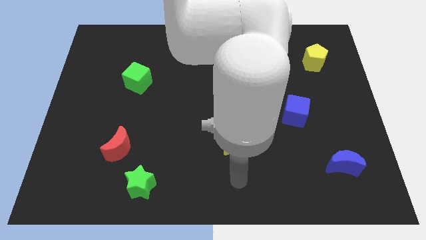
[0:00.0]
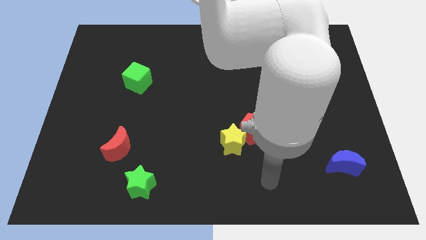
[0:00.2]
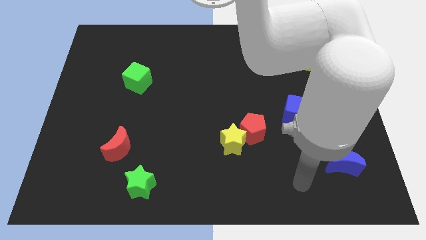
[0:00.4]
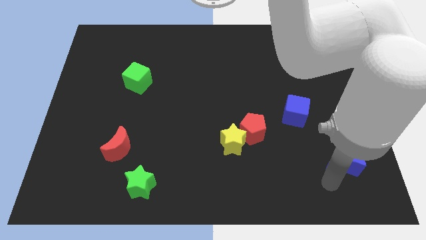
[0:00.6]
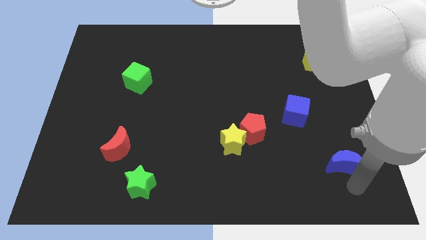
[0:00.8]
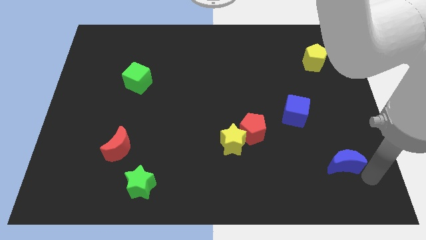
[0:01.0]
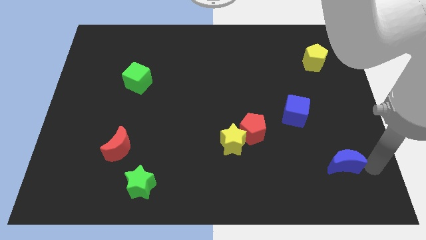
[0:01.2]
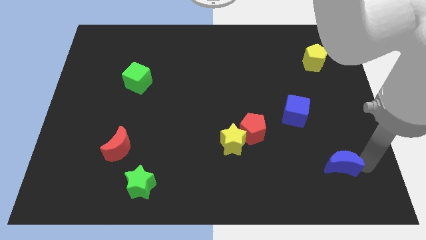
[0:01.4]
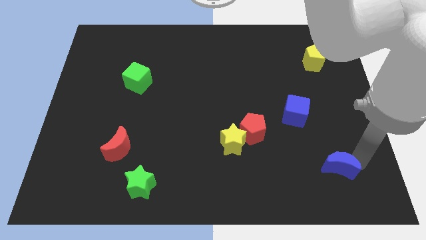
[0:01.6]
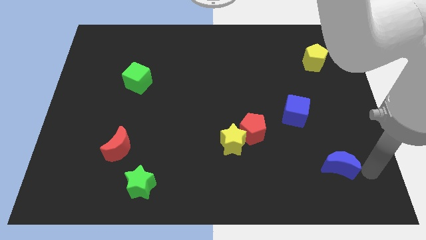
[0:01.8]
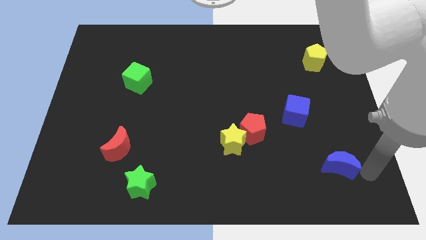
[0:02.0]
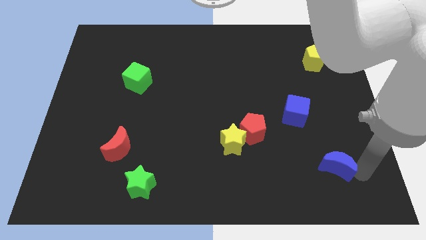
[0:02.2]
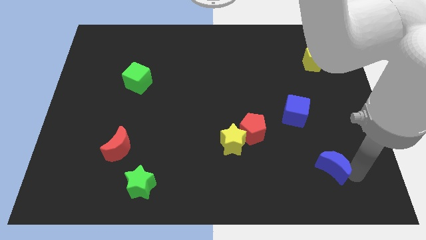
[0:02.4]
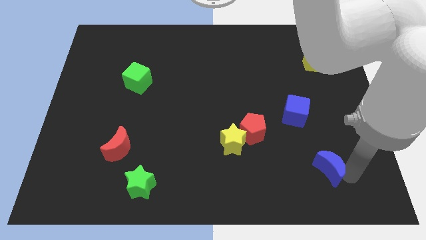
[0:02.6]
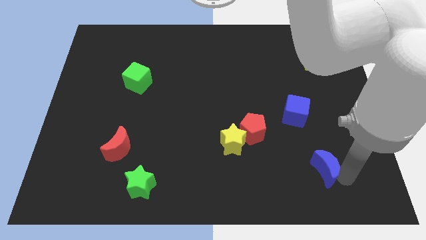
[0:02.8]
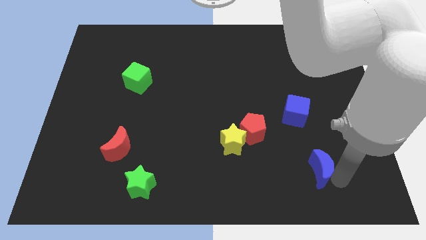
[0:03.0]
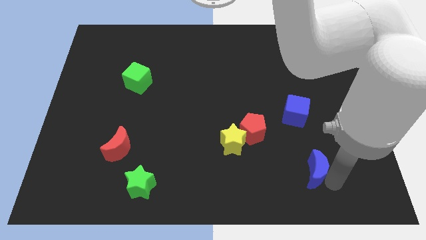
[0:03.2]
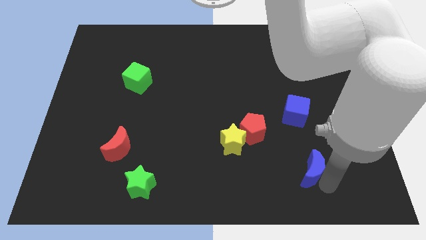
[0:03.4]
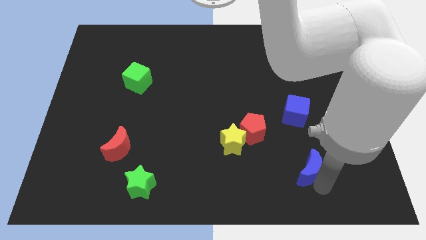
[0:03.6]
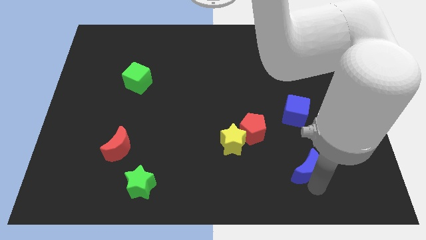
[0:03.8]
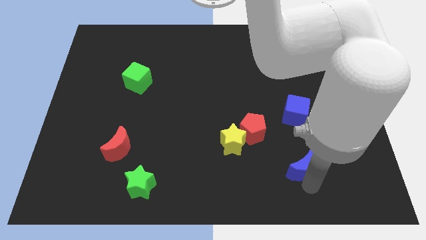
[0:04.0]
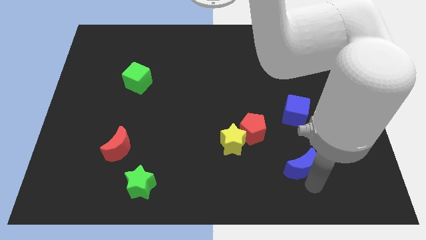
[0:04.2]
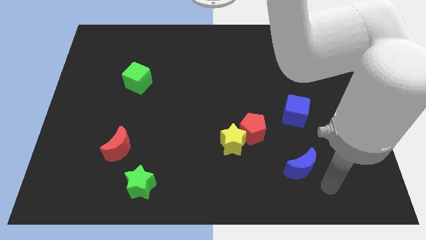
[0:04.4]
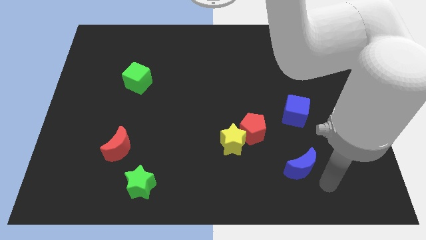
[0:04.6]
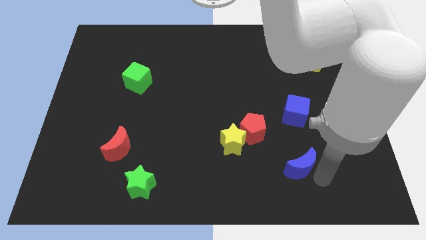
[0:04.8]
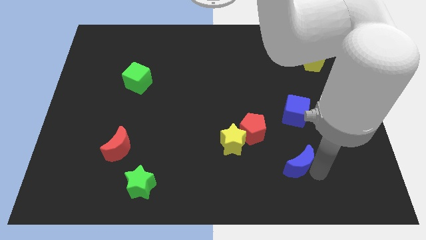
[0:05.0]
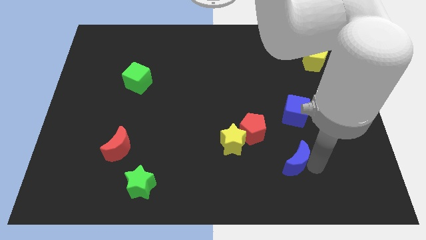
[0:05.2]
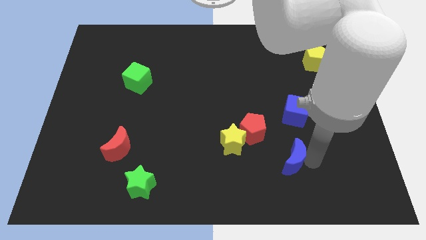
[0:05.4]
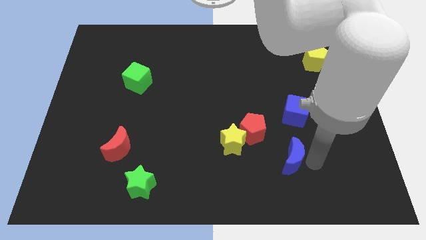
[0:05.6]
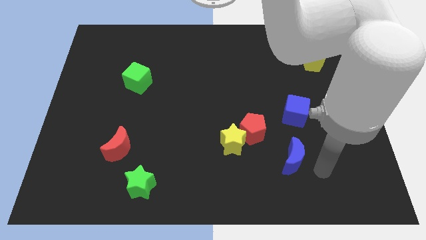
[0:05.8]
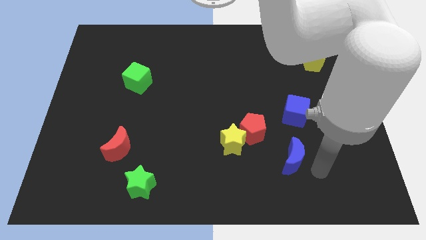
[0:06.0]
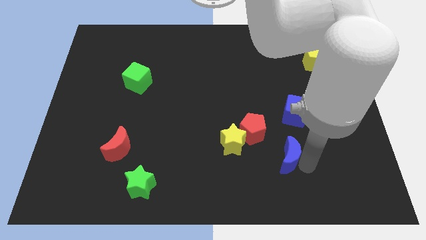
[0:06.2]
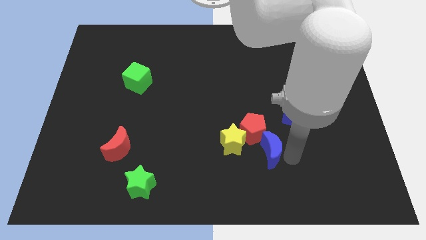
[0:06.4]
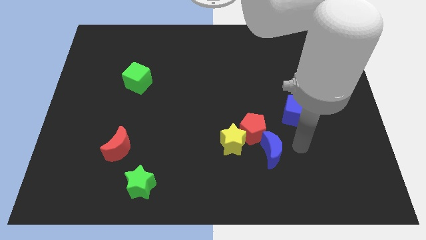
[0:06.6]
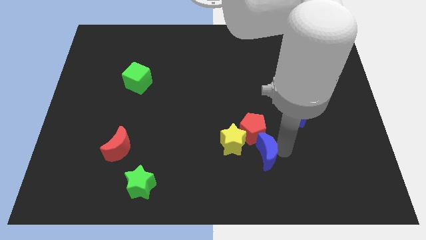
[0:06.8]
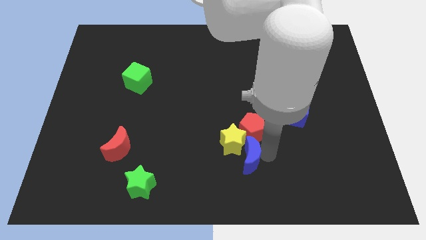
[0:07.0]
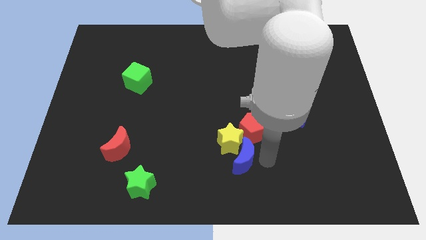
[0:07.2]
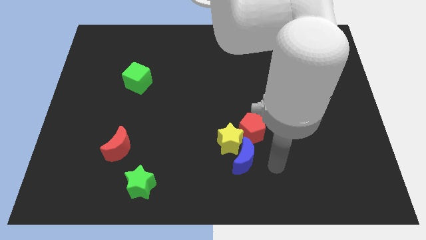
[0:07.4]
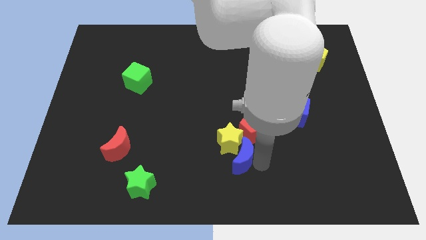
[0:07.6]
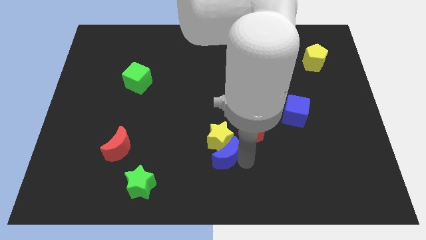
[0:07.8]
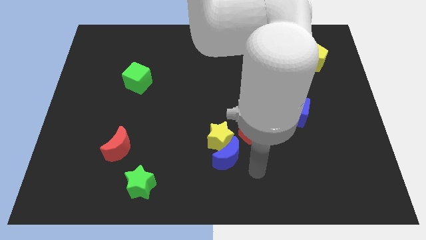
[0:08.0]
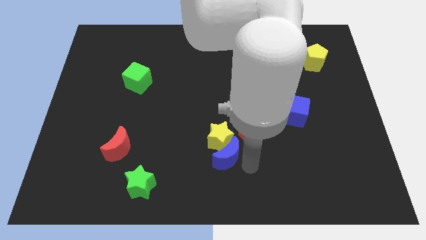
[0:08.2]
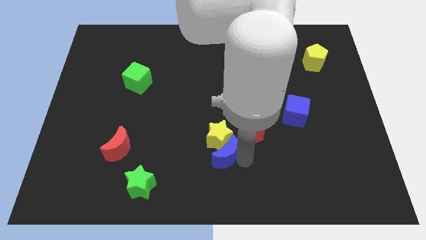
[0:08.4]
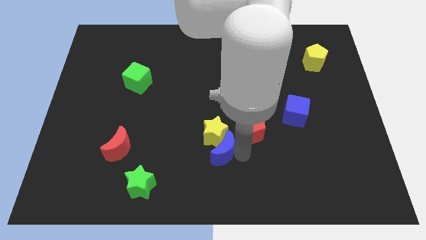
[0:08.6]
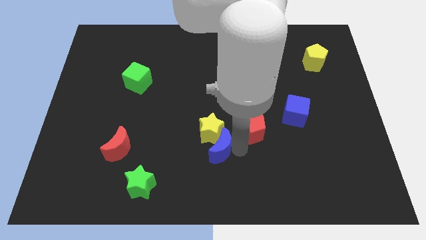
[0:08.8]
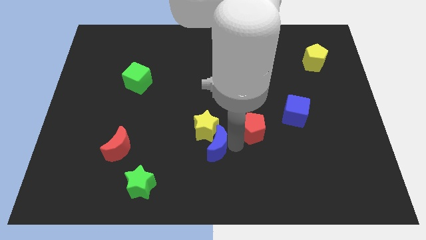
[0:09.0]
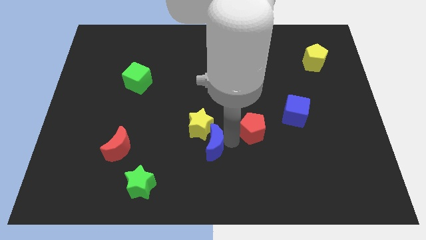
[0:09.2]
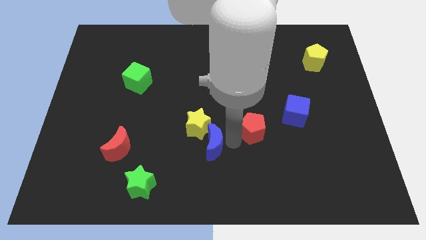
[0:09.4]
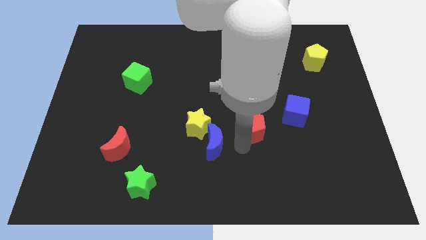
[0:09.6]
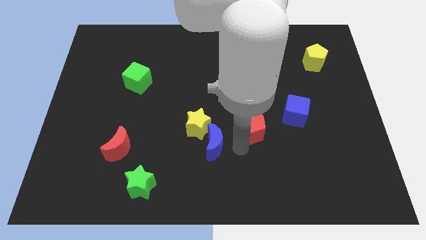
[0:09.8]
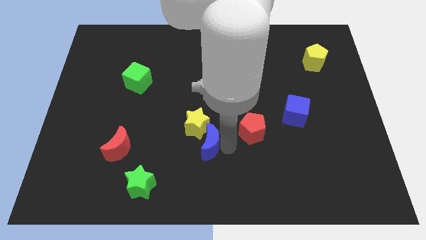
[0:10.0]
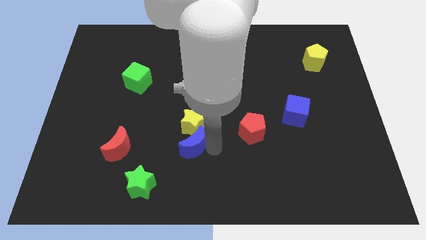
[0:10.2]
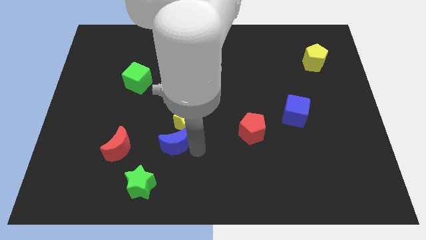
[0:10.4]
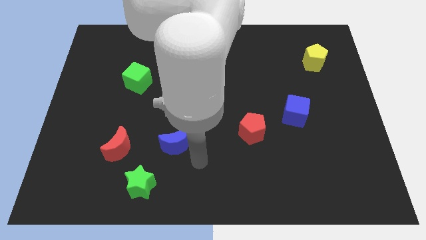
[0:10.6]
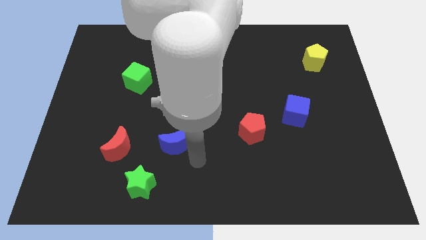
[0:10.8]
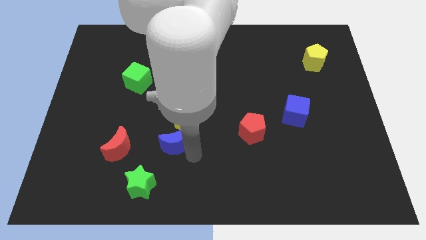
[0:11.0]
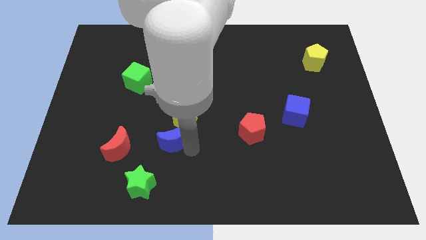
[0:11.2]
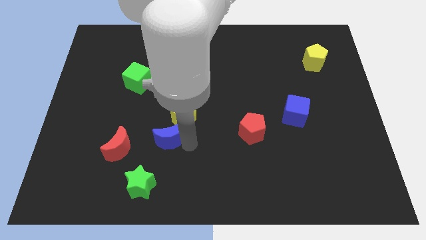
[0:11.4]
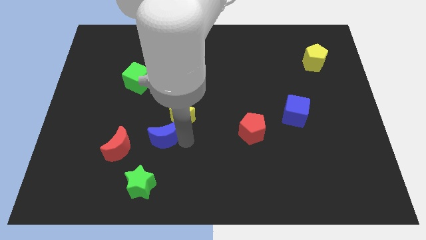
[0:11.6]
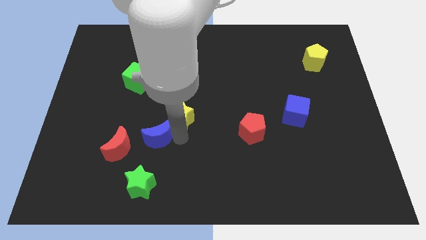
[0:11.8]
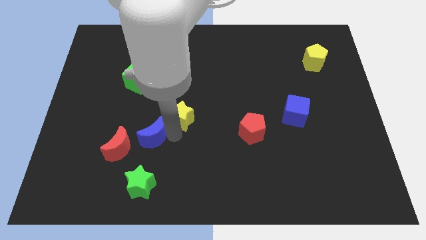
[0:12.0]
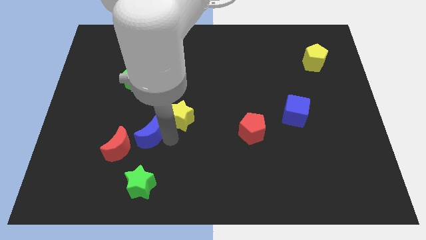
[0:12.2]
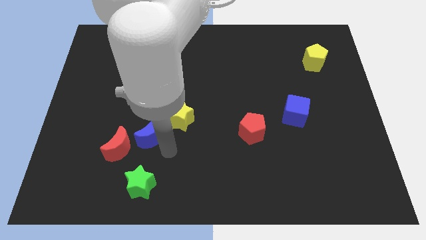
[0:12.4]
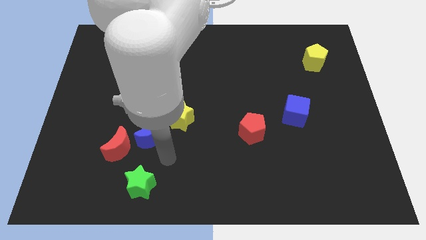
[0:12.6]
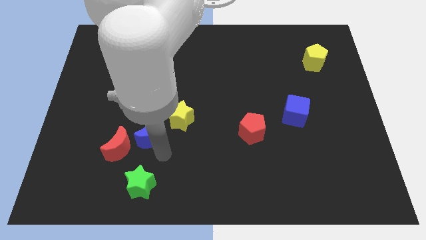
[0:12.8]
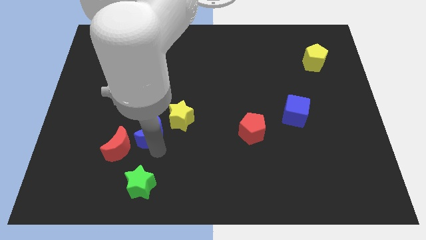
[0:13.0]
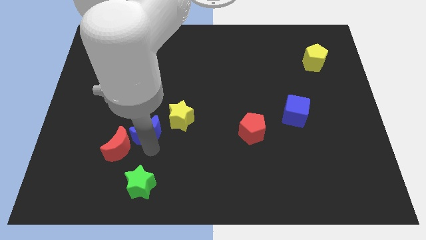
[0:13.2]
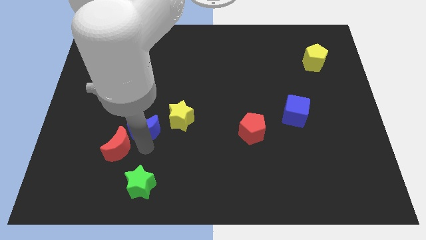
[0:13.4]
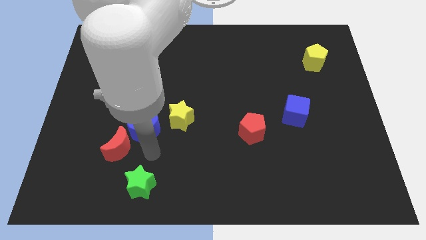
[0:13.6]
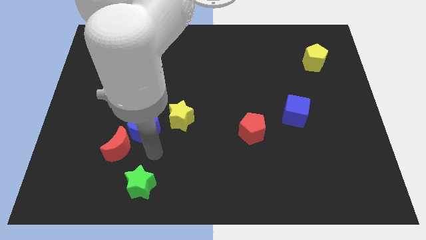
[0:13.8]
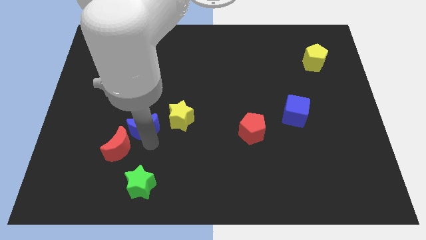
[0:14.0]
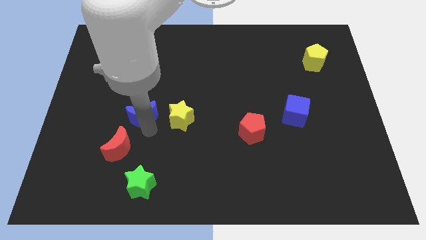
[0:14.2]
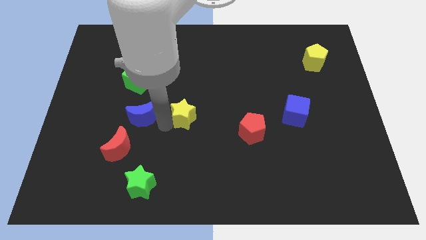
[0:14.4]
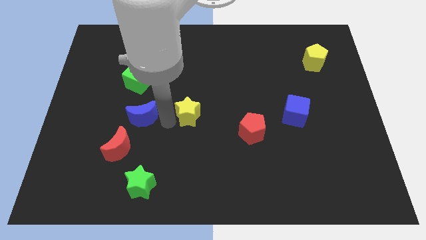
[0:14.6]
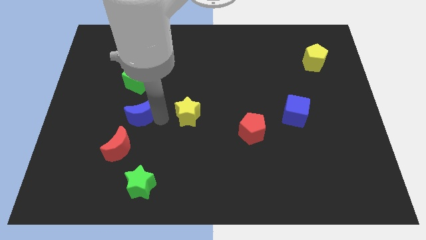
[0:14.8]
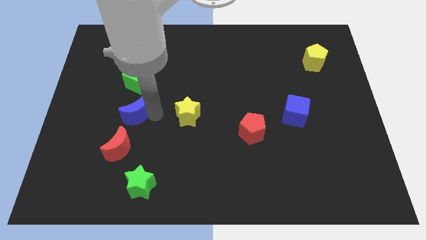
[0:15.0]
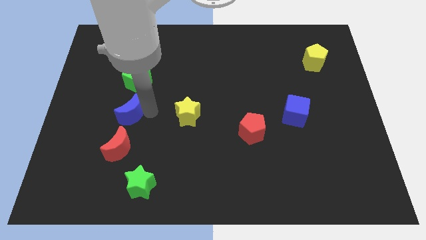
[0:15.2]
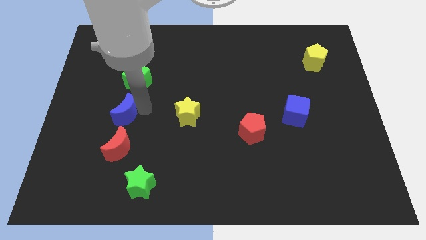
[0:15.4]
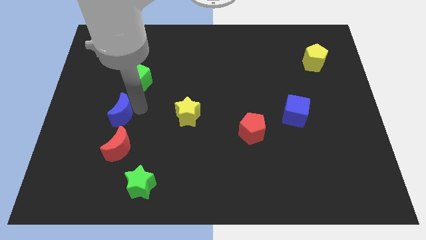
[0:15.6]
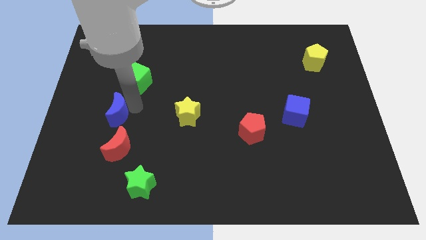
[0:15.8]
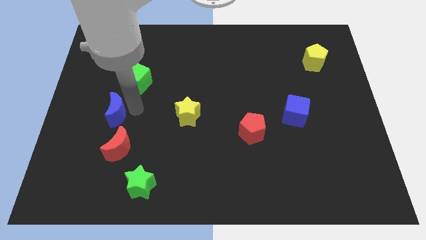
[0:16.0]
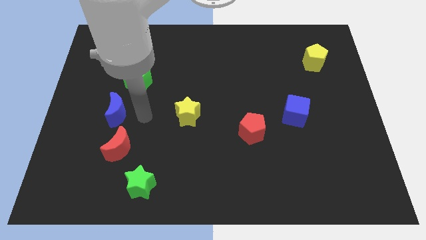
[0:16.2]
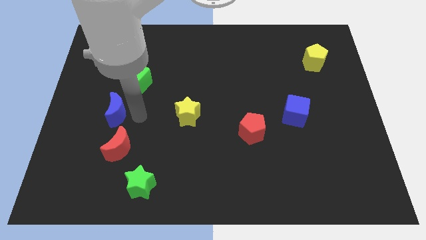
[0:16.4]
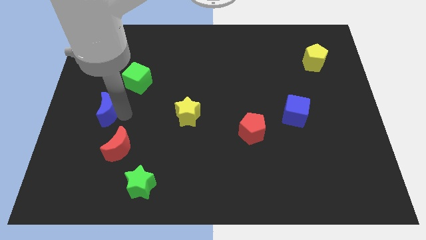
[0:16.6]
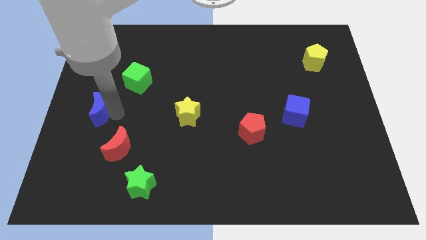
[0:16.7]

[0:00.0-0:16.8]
put the blue moon to the left side
